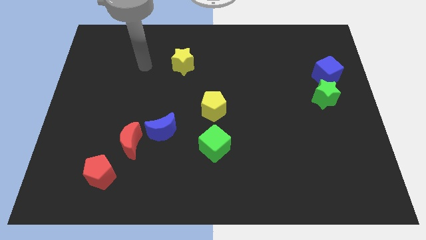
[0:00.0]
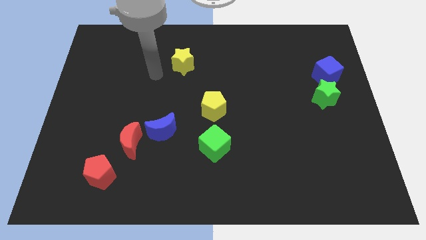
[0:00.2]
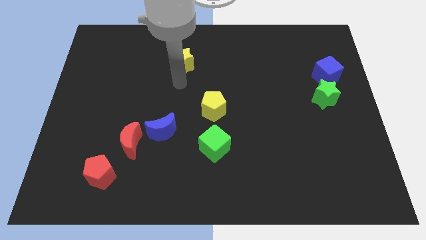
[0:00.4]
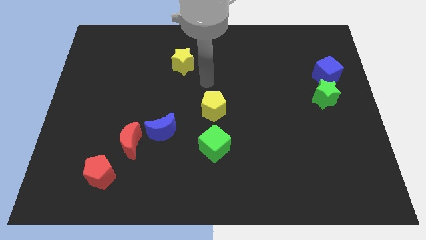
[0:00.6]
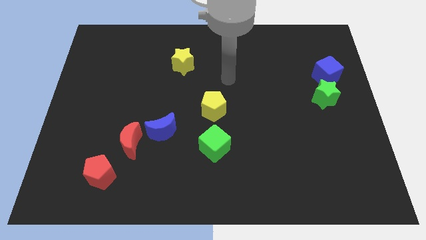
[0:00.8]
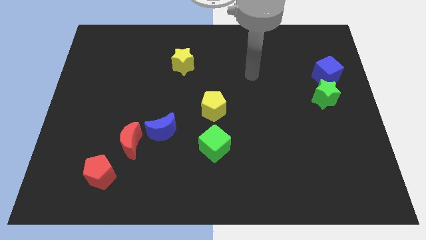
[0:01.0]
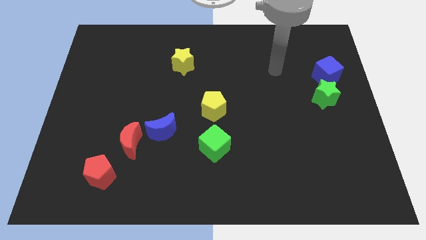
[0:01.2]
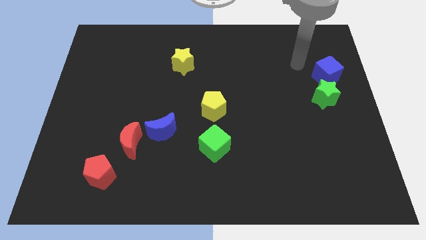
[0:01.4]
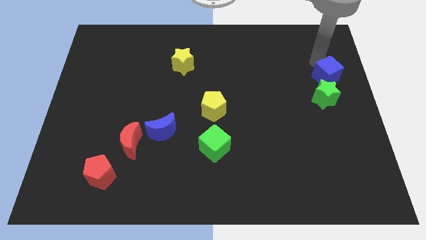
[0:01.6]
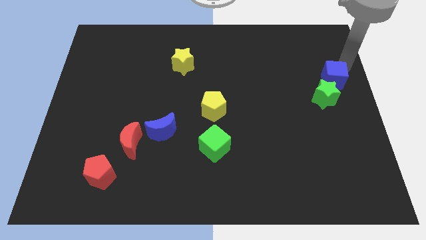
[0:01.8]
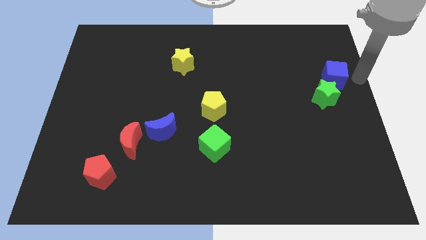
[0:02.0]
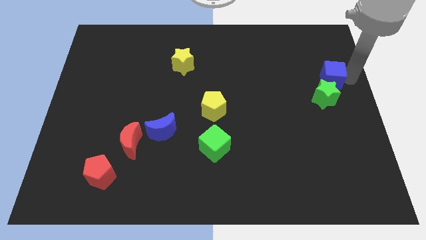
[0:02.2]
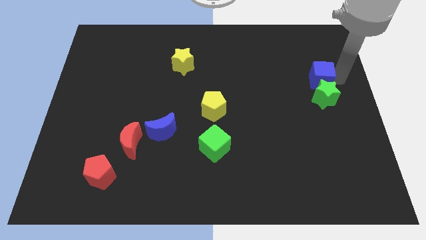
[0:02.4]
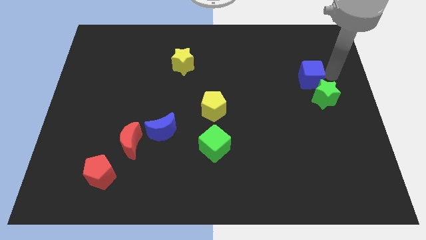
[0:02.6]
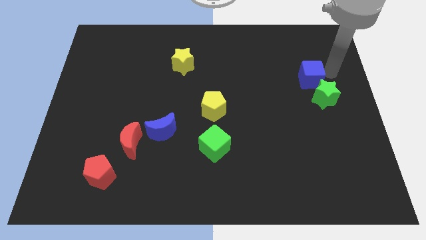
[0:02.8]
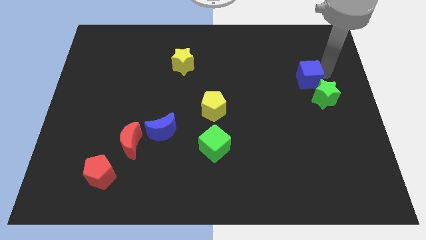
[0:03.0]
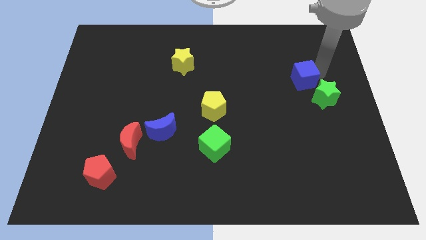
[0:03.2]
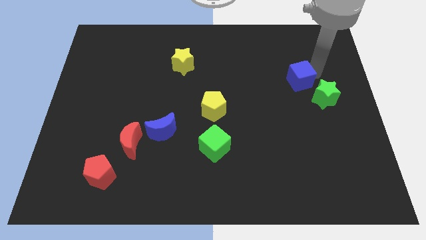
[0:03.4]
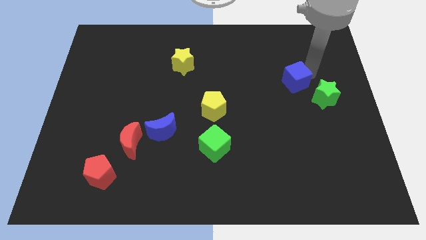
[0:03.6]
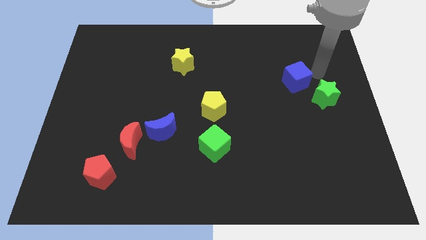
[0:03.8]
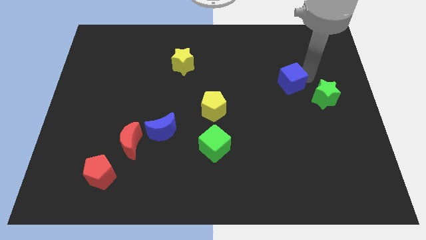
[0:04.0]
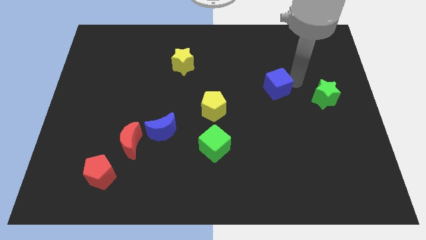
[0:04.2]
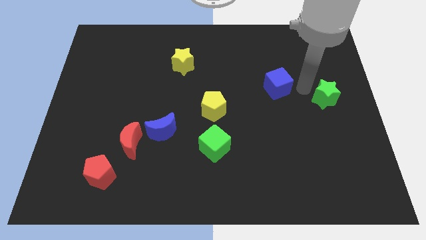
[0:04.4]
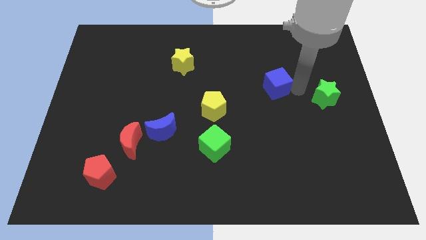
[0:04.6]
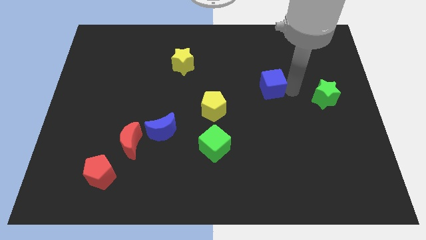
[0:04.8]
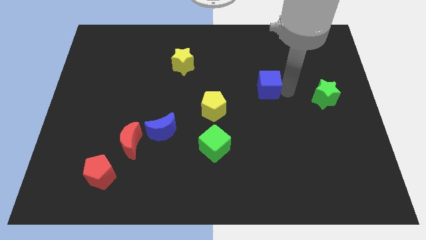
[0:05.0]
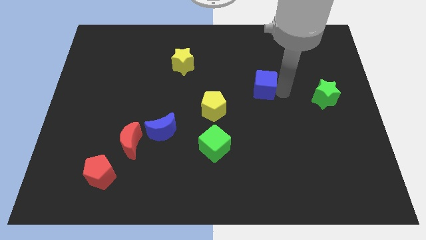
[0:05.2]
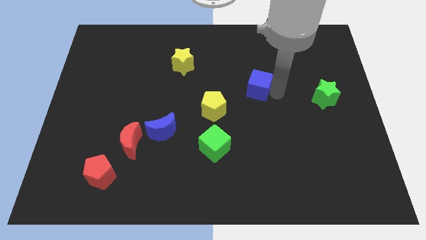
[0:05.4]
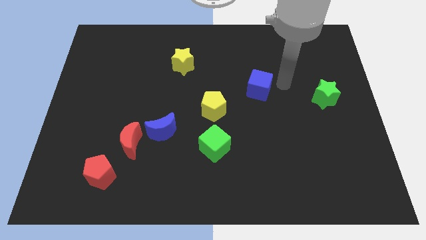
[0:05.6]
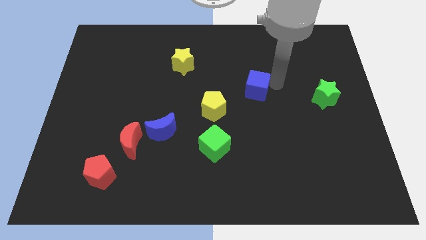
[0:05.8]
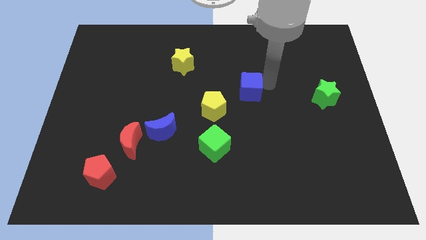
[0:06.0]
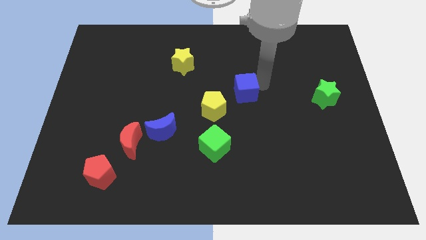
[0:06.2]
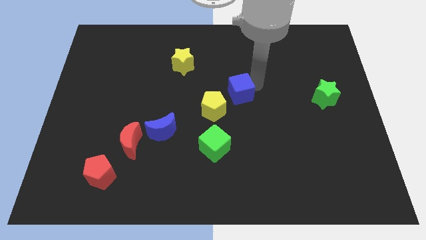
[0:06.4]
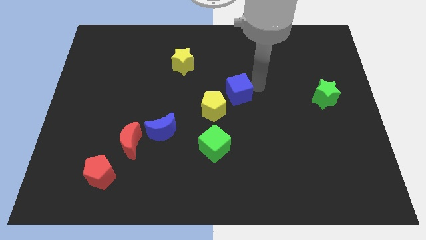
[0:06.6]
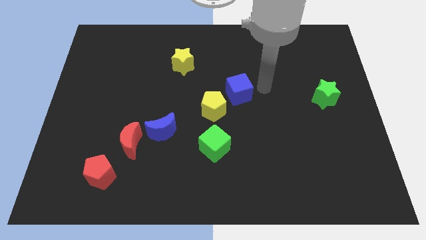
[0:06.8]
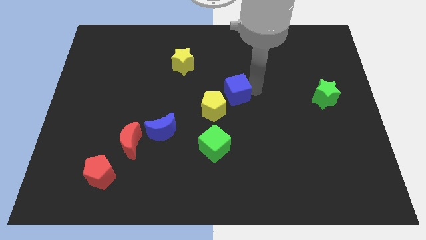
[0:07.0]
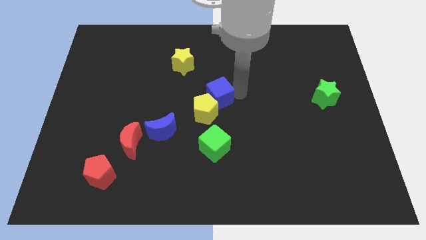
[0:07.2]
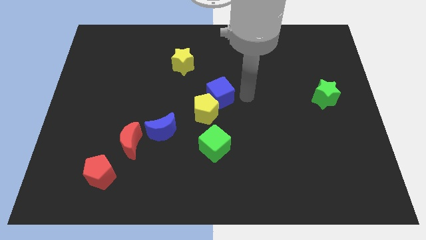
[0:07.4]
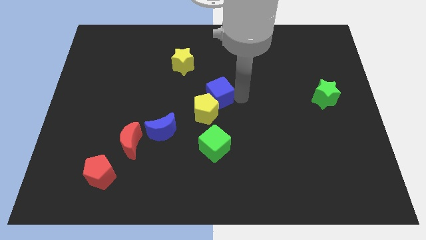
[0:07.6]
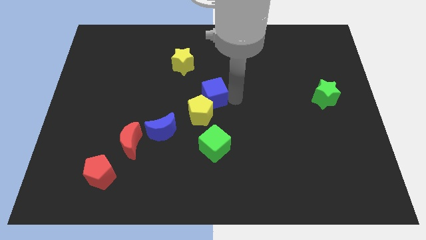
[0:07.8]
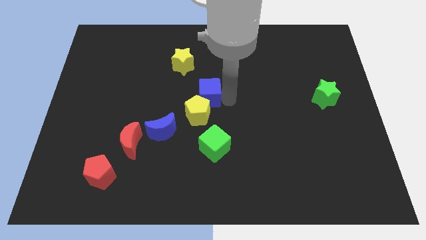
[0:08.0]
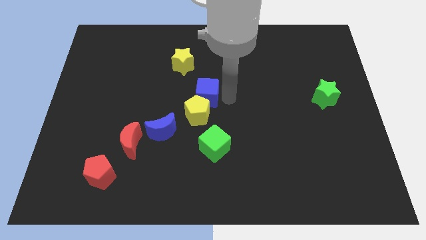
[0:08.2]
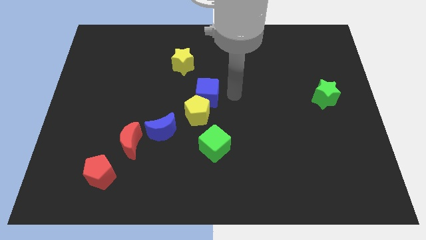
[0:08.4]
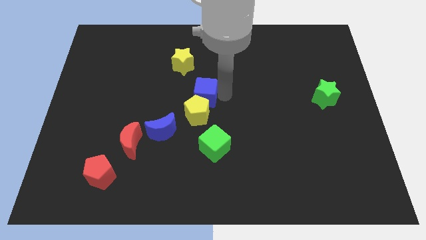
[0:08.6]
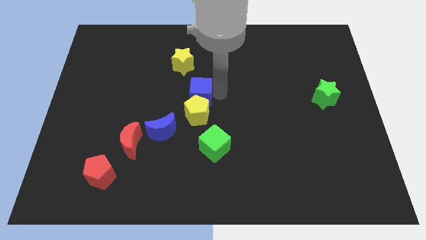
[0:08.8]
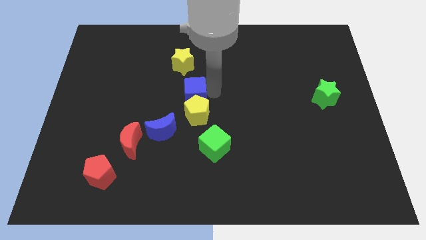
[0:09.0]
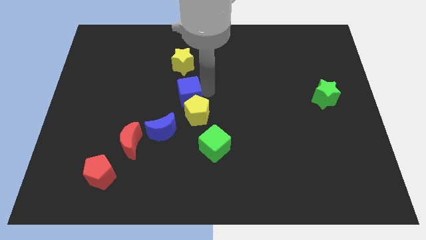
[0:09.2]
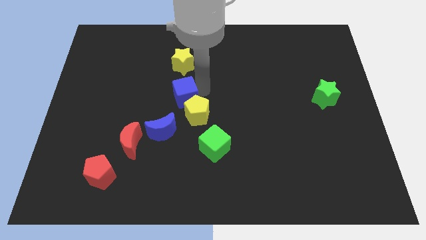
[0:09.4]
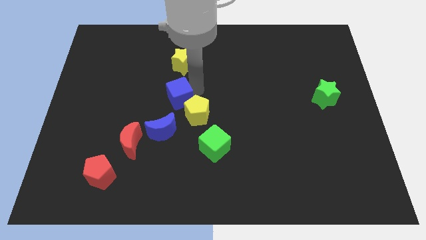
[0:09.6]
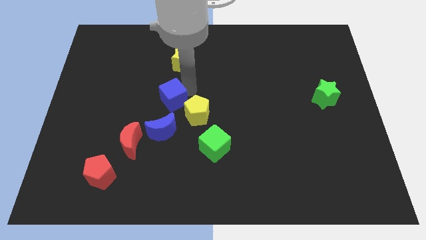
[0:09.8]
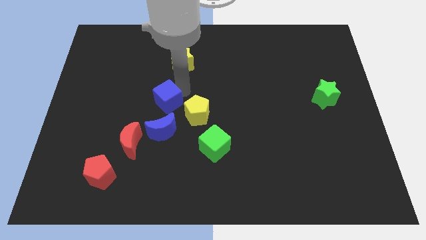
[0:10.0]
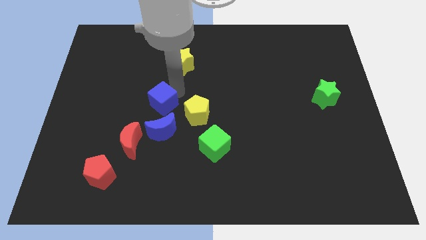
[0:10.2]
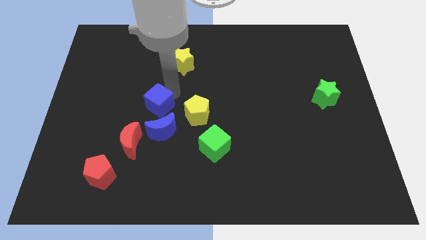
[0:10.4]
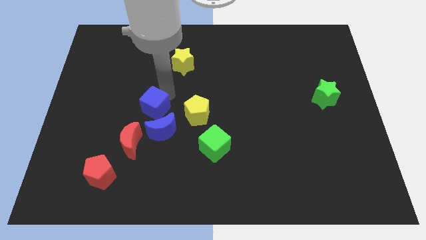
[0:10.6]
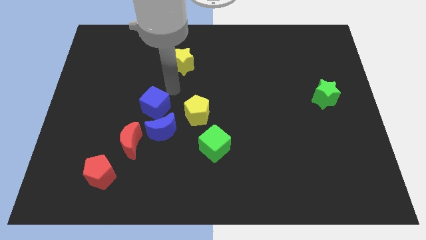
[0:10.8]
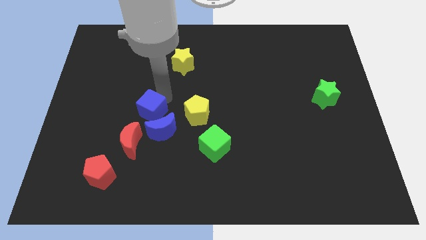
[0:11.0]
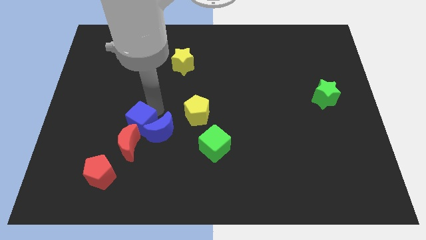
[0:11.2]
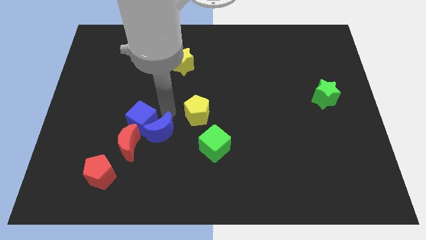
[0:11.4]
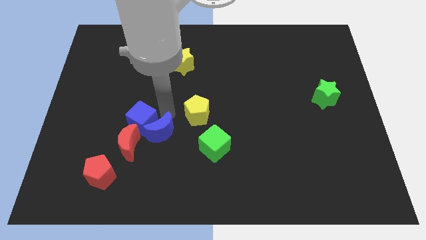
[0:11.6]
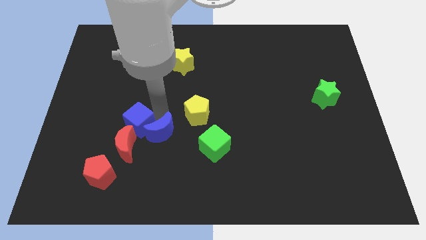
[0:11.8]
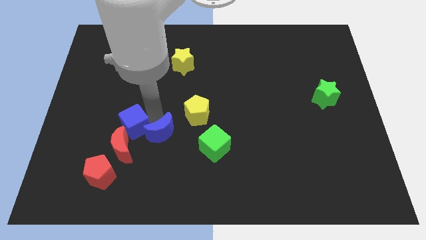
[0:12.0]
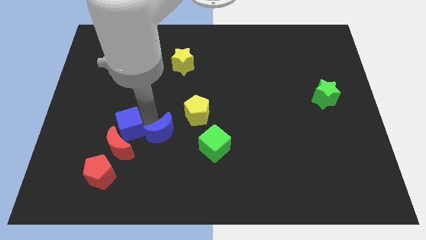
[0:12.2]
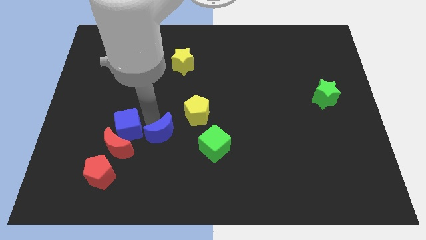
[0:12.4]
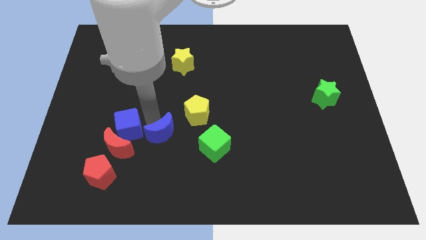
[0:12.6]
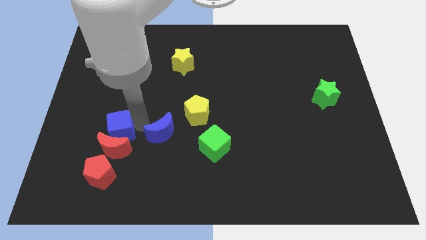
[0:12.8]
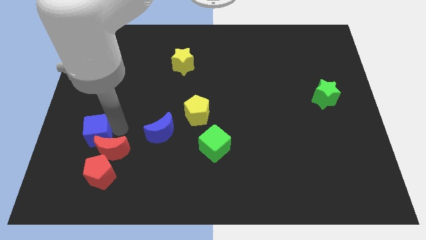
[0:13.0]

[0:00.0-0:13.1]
push the blue cube to the left of the red moon

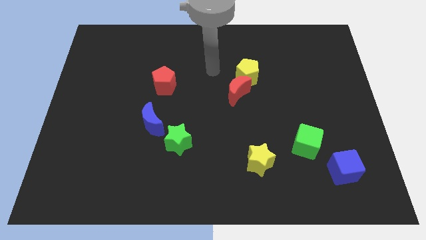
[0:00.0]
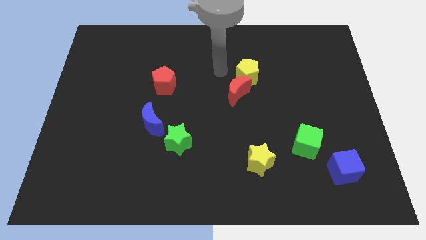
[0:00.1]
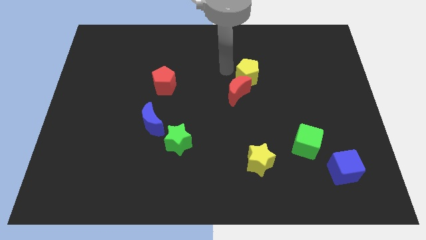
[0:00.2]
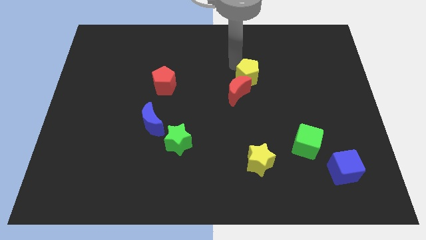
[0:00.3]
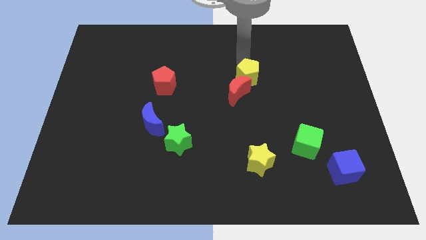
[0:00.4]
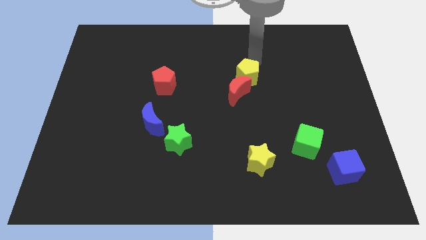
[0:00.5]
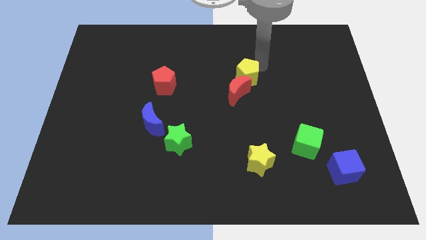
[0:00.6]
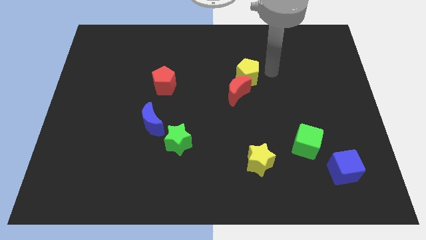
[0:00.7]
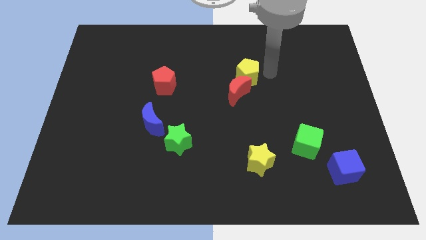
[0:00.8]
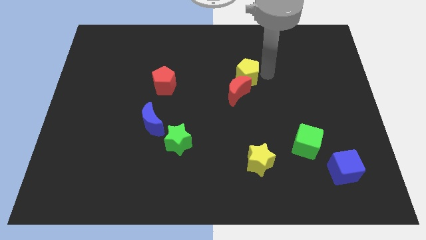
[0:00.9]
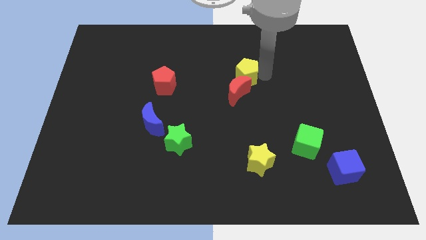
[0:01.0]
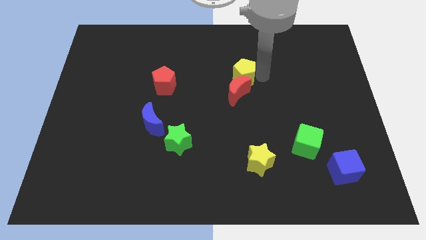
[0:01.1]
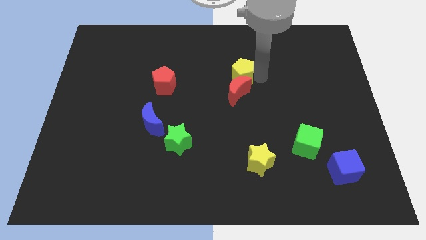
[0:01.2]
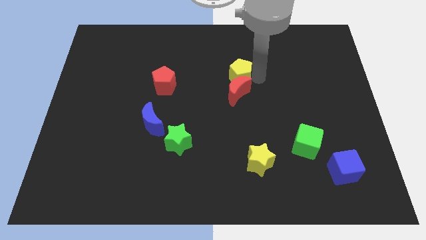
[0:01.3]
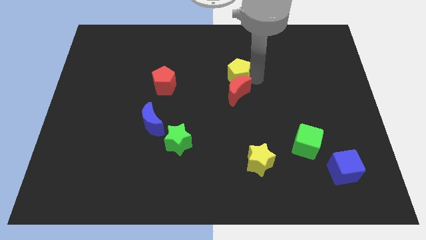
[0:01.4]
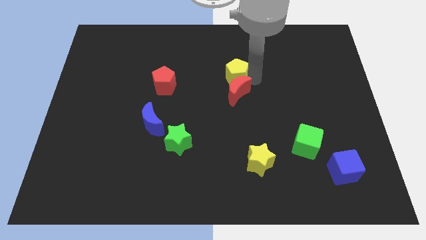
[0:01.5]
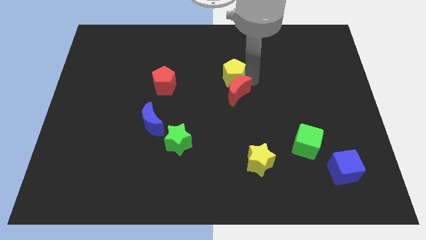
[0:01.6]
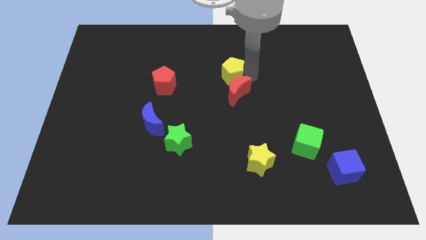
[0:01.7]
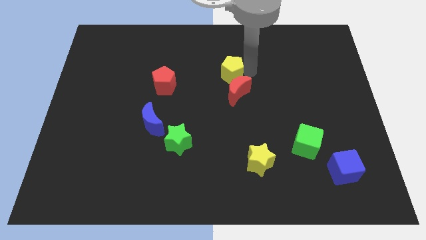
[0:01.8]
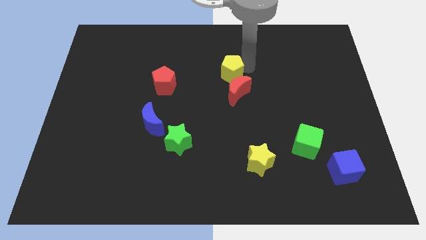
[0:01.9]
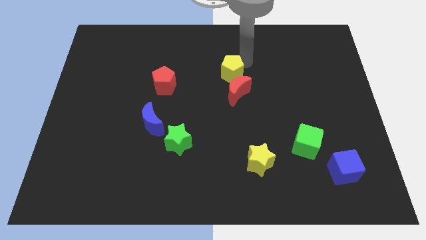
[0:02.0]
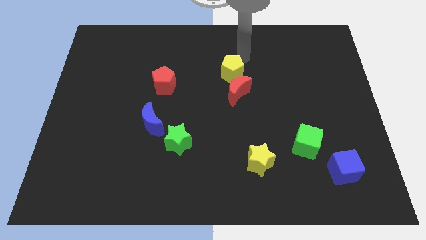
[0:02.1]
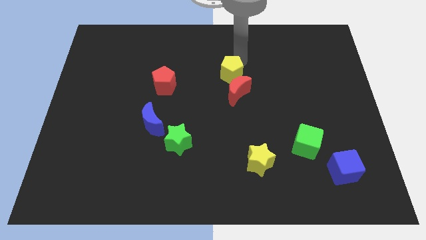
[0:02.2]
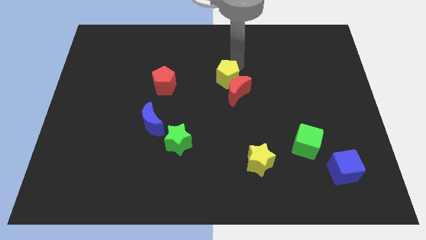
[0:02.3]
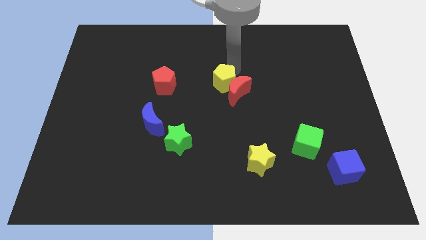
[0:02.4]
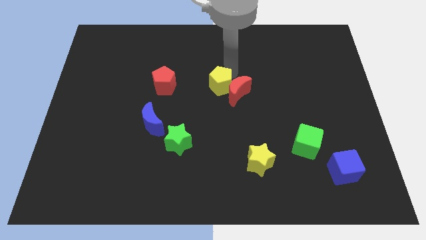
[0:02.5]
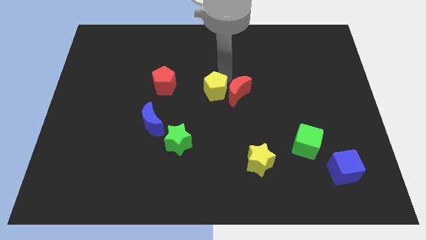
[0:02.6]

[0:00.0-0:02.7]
push the yellow pentagon to the bottom left side of the red moon
